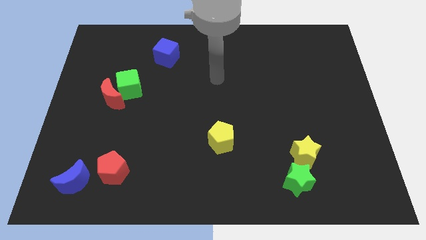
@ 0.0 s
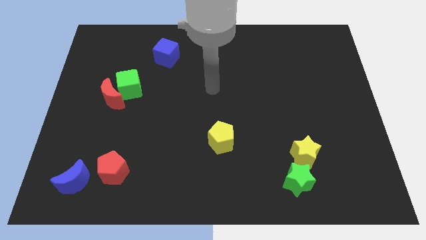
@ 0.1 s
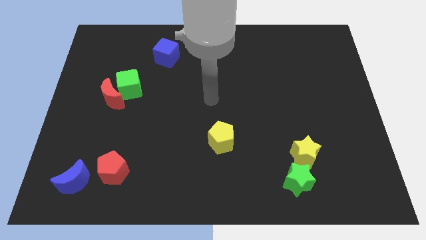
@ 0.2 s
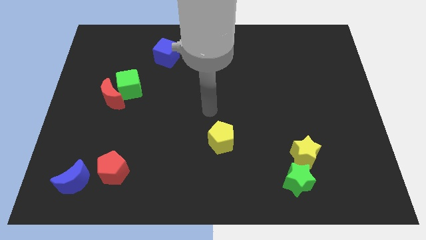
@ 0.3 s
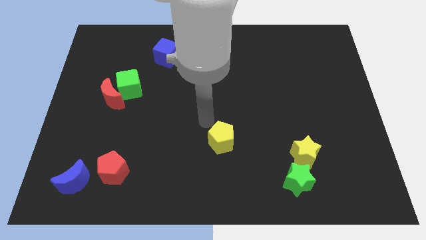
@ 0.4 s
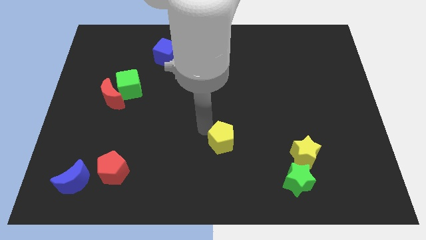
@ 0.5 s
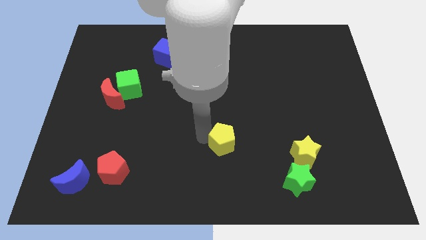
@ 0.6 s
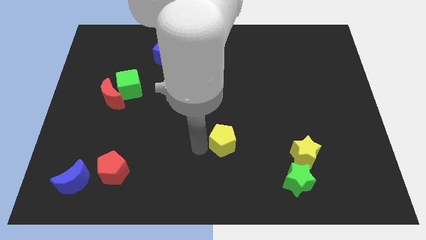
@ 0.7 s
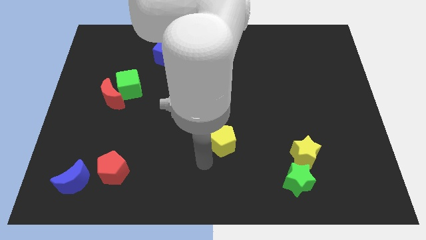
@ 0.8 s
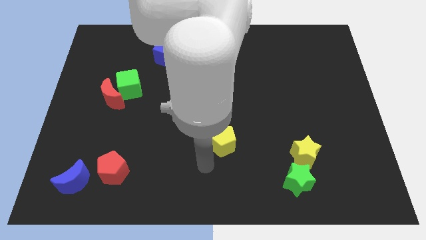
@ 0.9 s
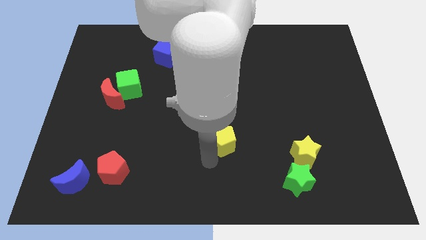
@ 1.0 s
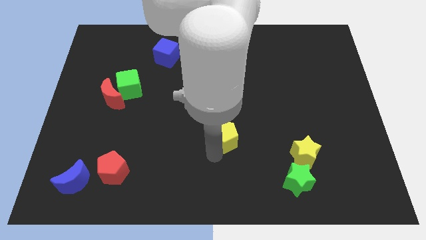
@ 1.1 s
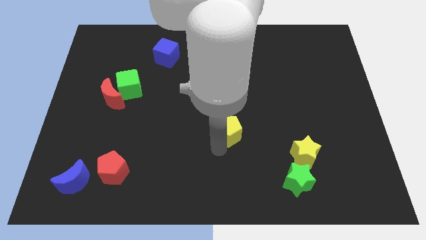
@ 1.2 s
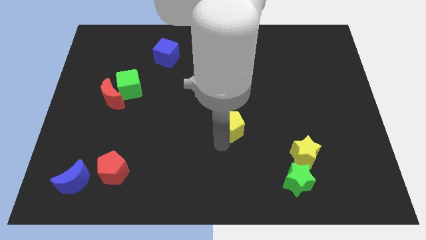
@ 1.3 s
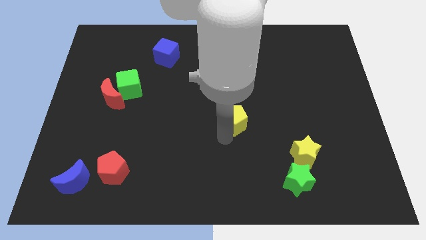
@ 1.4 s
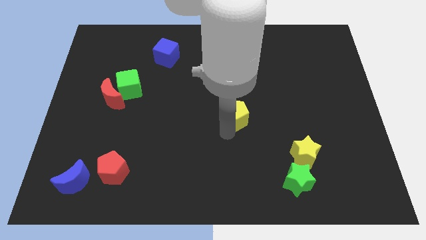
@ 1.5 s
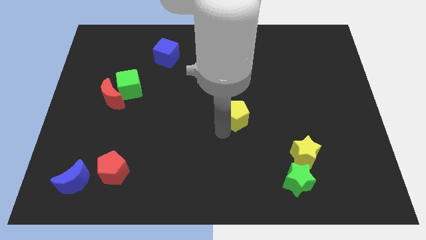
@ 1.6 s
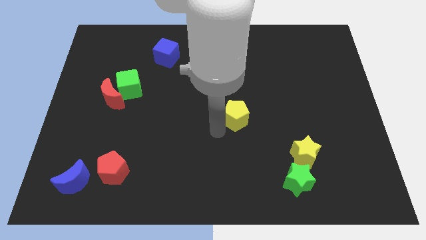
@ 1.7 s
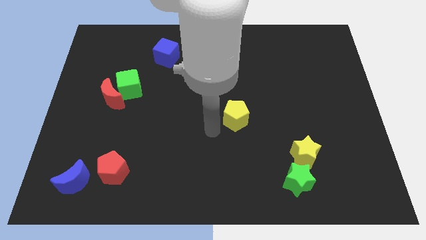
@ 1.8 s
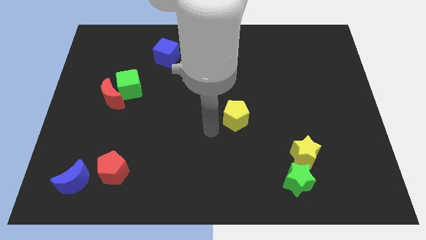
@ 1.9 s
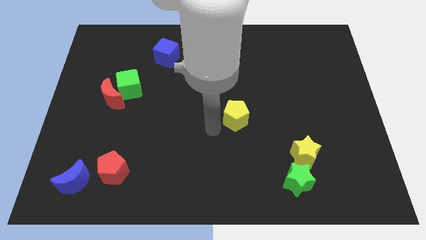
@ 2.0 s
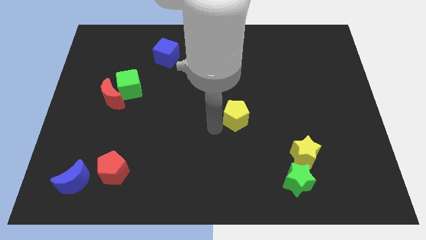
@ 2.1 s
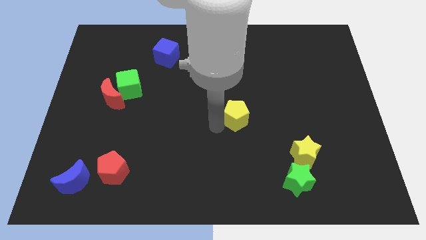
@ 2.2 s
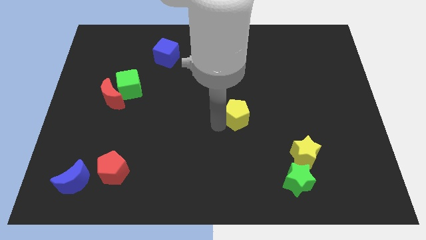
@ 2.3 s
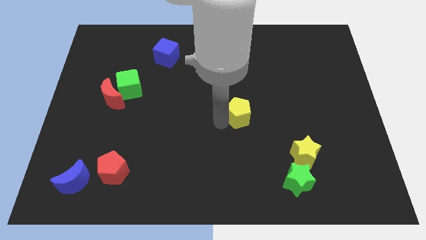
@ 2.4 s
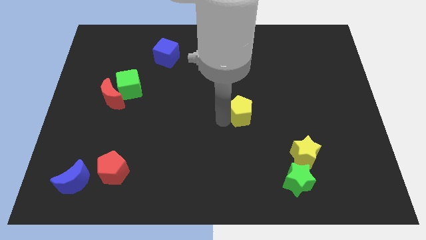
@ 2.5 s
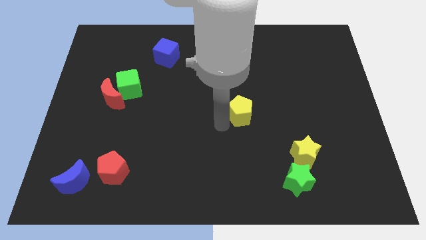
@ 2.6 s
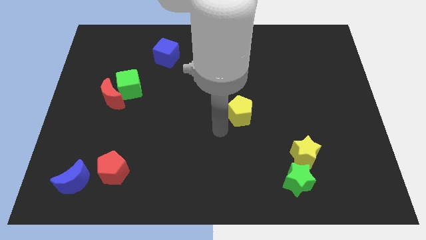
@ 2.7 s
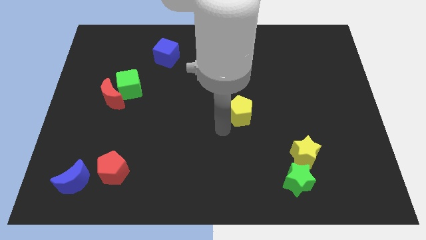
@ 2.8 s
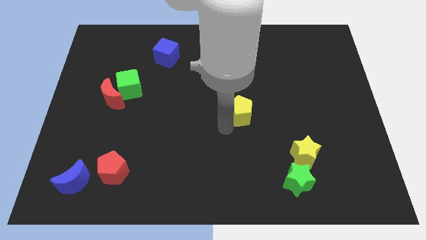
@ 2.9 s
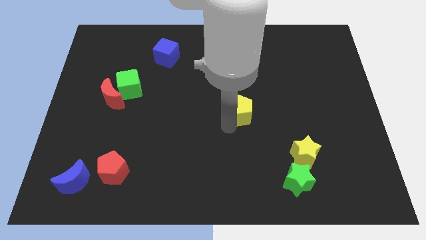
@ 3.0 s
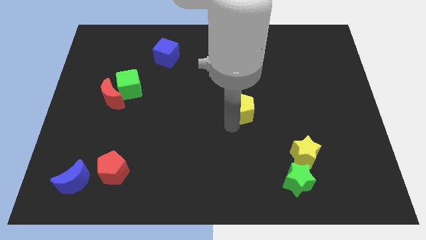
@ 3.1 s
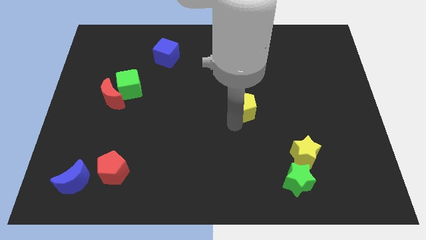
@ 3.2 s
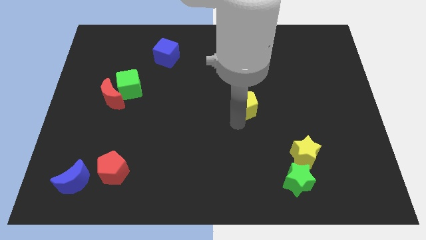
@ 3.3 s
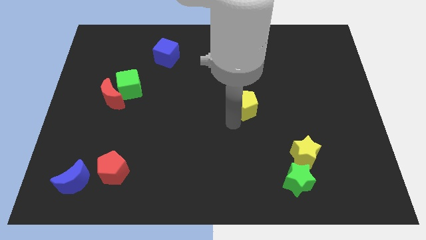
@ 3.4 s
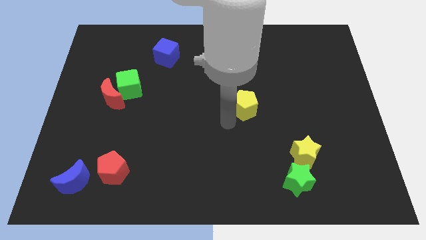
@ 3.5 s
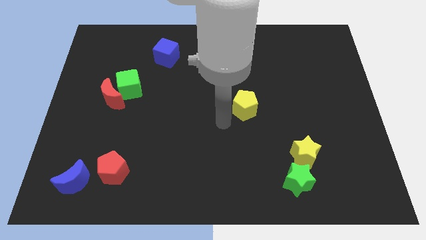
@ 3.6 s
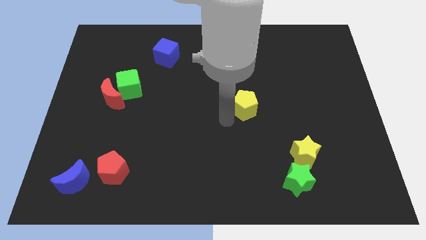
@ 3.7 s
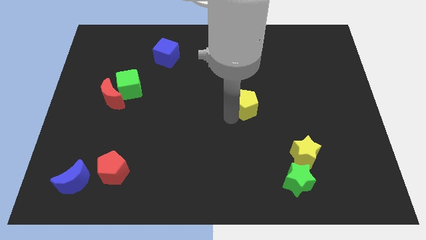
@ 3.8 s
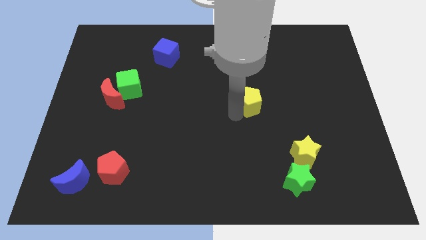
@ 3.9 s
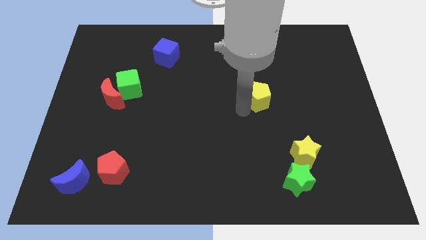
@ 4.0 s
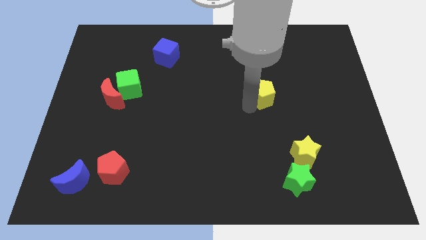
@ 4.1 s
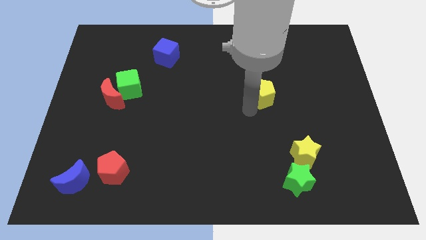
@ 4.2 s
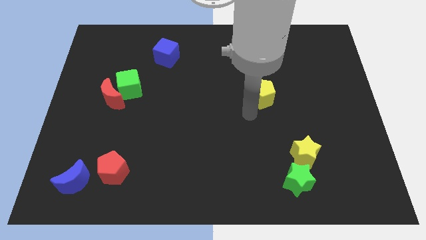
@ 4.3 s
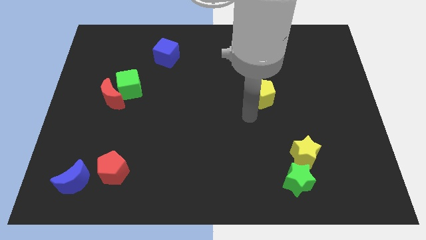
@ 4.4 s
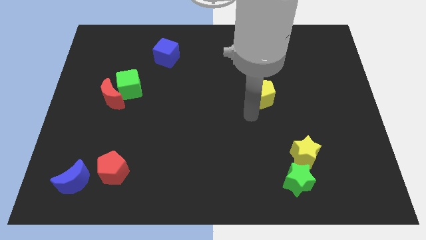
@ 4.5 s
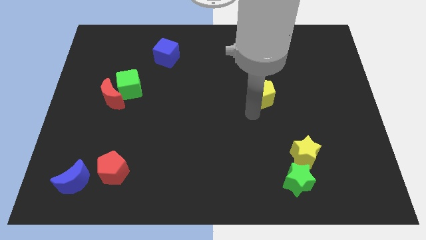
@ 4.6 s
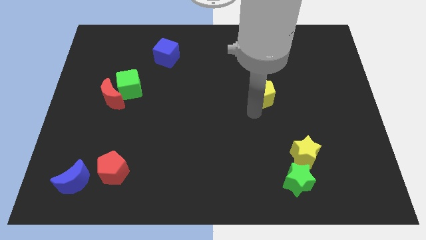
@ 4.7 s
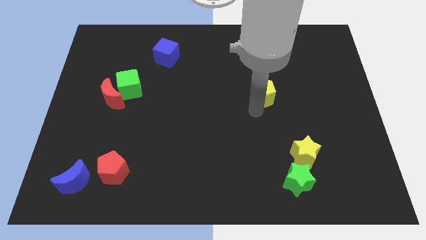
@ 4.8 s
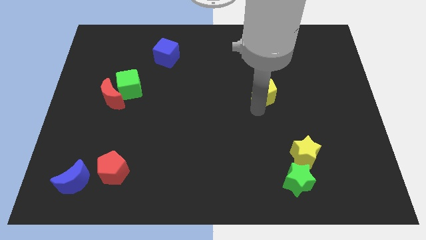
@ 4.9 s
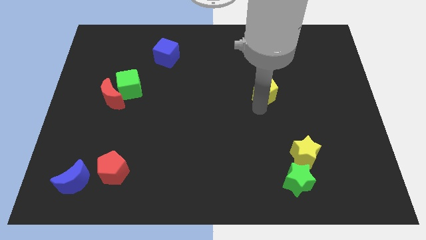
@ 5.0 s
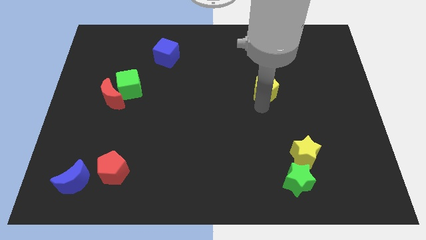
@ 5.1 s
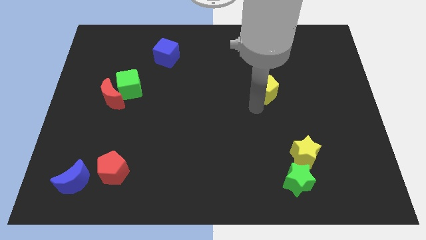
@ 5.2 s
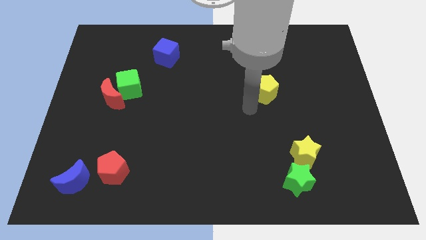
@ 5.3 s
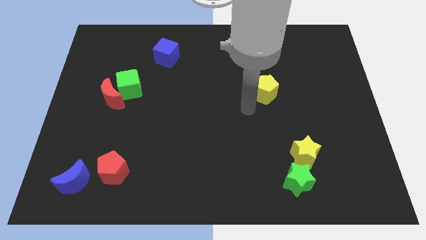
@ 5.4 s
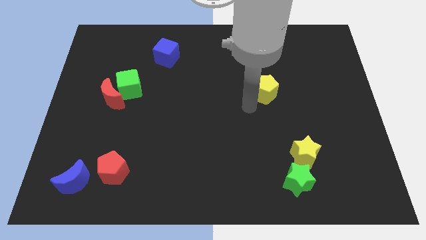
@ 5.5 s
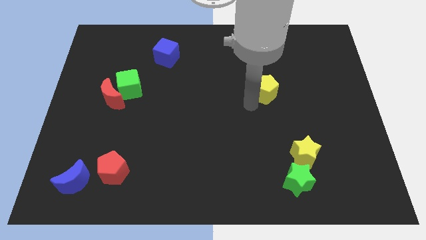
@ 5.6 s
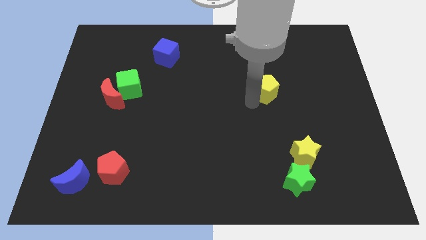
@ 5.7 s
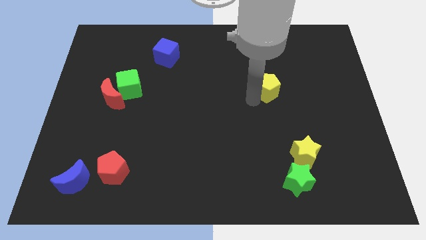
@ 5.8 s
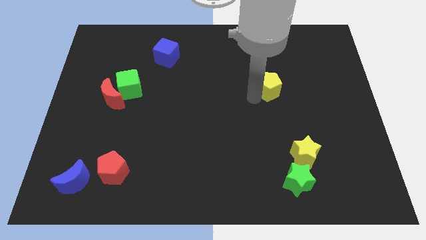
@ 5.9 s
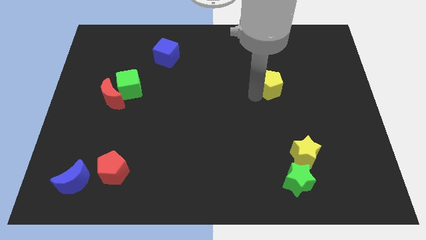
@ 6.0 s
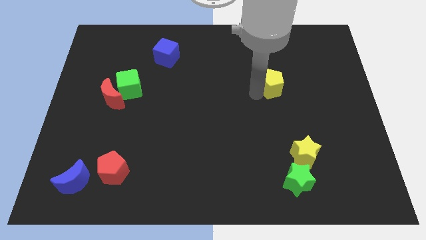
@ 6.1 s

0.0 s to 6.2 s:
push the yellow pentagon upwards and then right

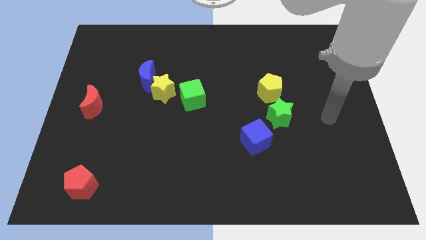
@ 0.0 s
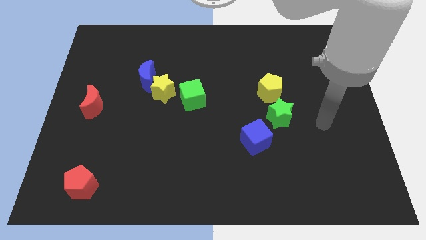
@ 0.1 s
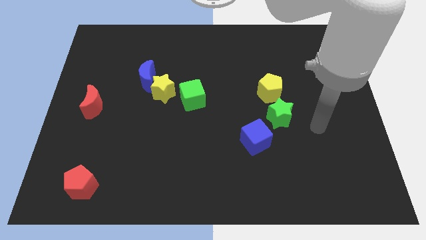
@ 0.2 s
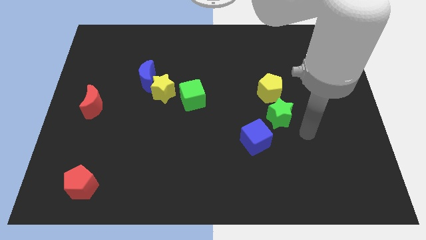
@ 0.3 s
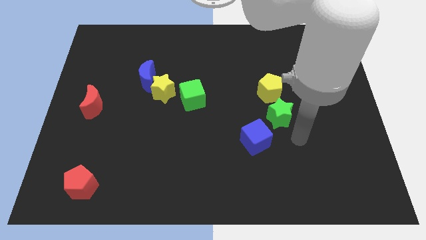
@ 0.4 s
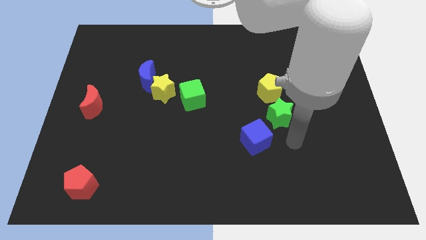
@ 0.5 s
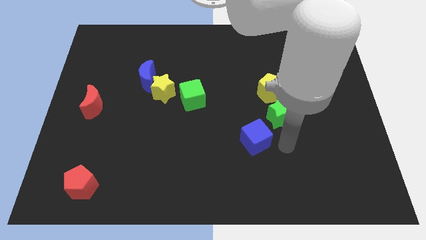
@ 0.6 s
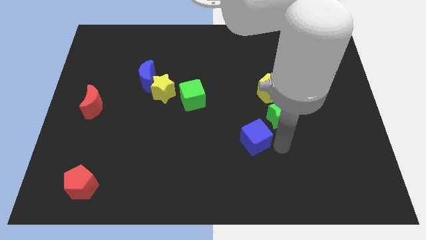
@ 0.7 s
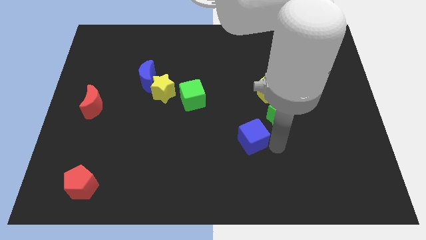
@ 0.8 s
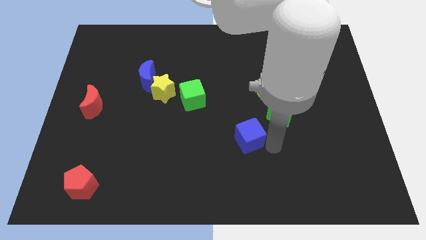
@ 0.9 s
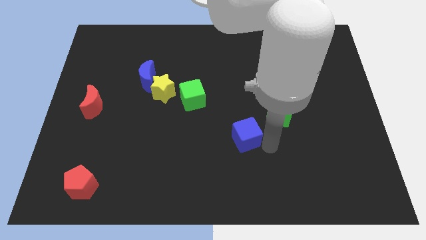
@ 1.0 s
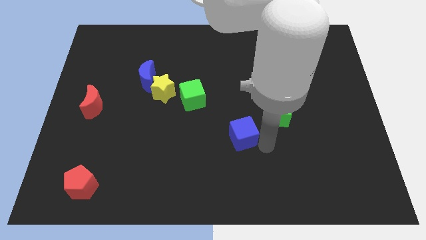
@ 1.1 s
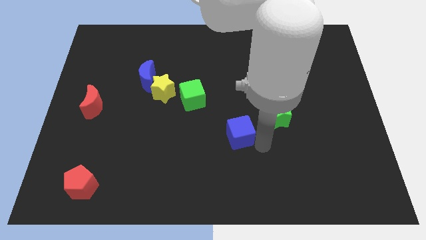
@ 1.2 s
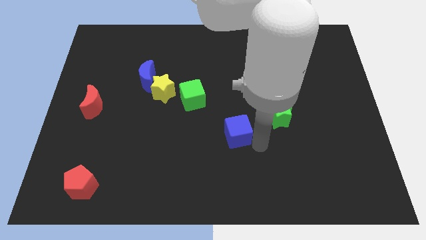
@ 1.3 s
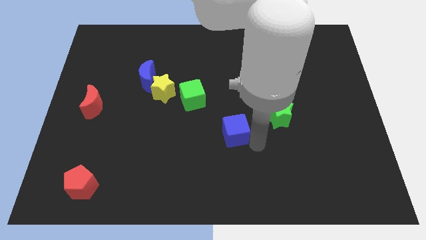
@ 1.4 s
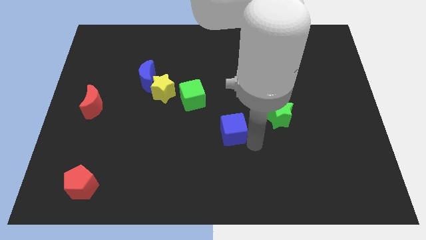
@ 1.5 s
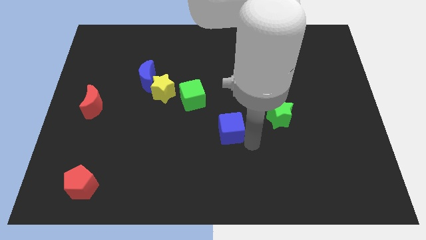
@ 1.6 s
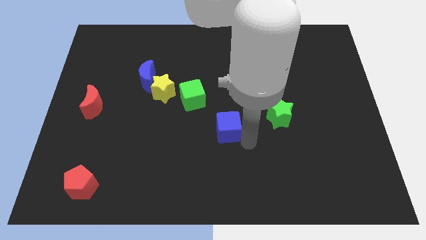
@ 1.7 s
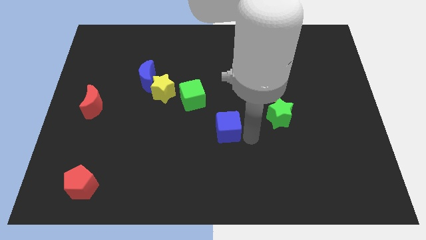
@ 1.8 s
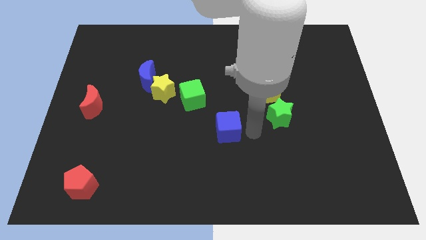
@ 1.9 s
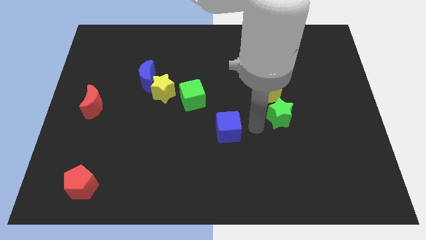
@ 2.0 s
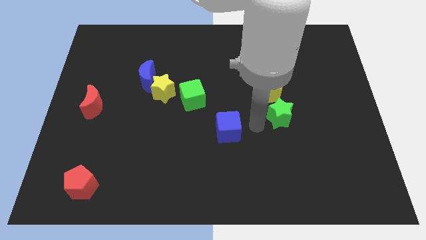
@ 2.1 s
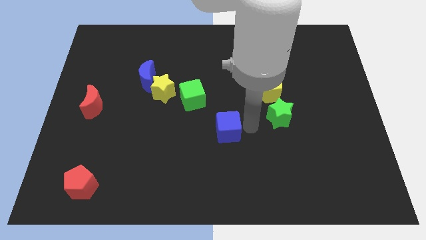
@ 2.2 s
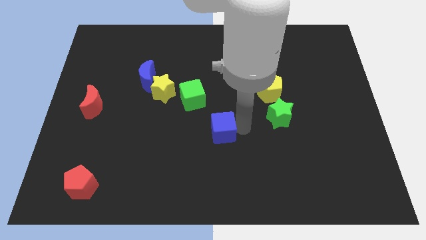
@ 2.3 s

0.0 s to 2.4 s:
move the blue cube left a bit
